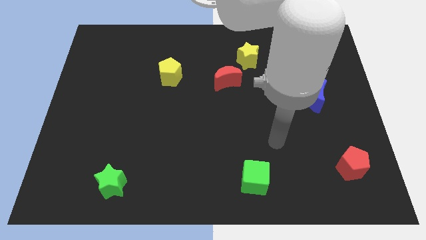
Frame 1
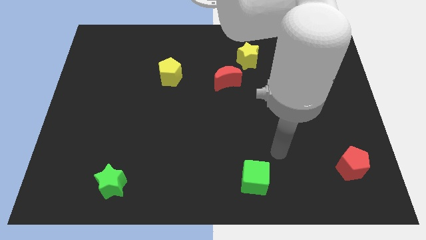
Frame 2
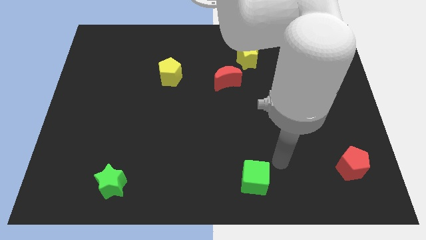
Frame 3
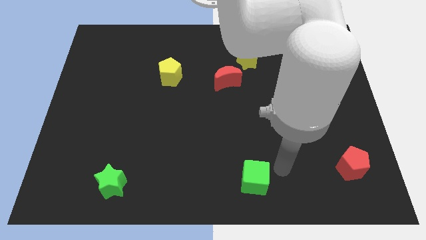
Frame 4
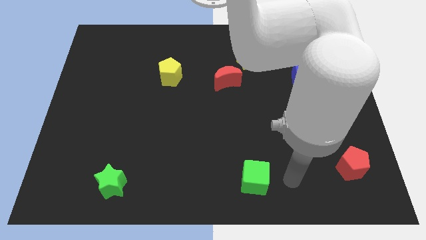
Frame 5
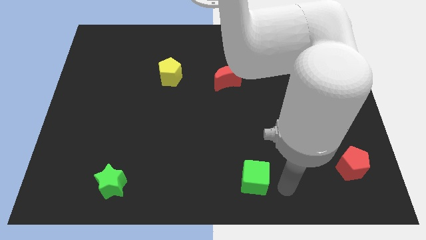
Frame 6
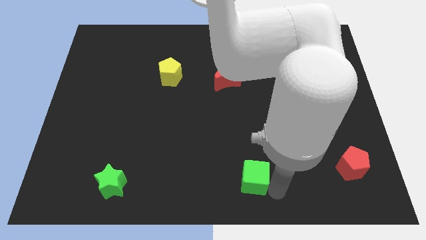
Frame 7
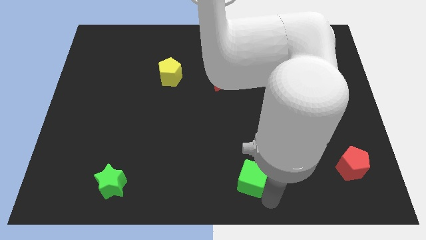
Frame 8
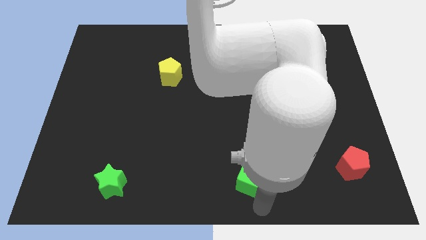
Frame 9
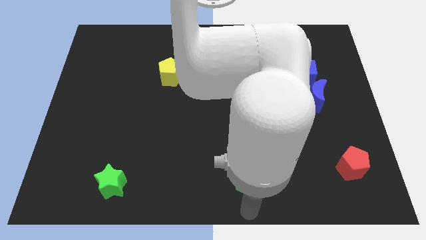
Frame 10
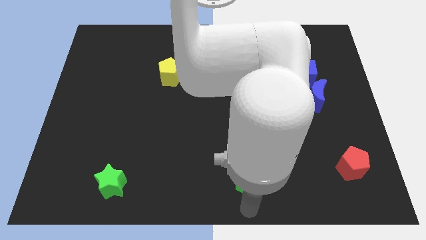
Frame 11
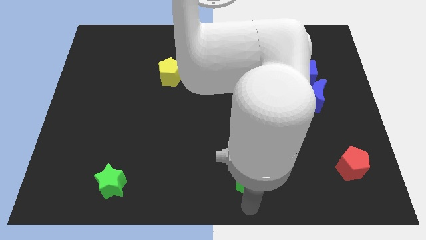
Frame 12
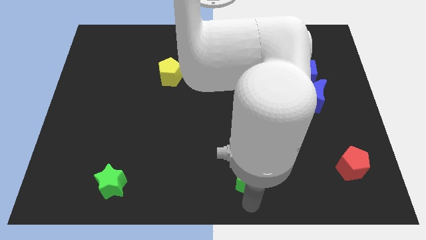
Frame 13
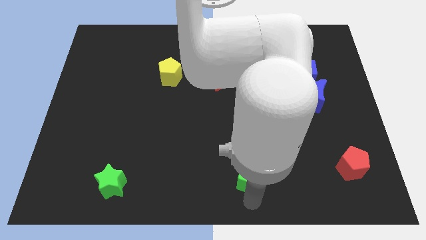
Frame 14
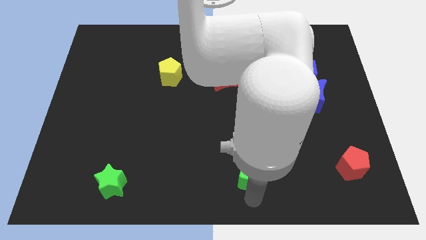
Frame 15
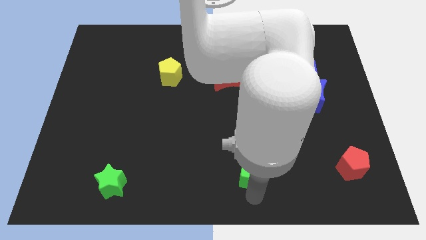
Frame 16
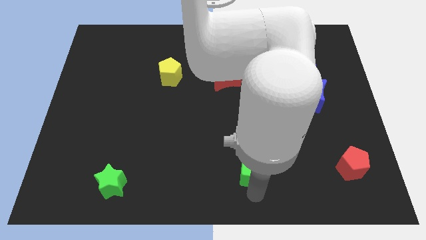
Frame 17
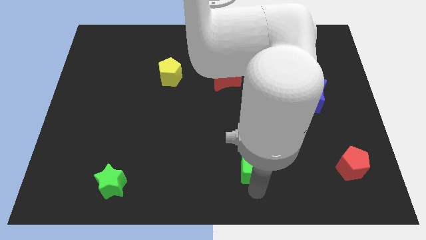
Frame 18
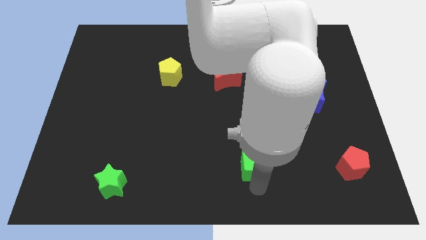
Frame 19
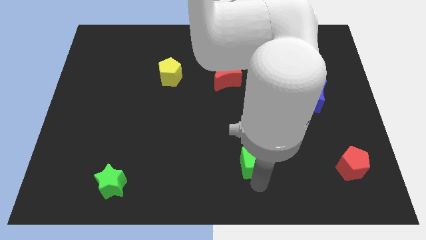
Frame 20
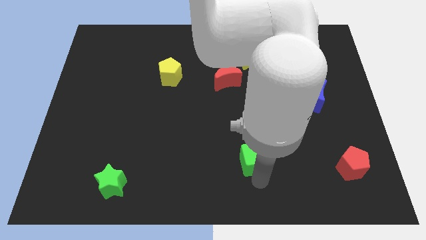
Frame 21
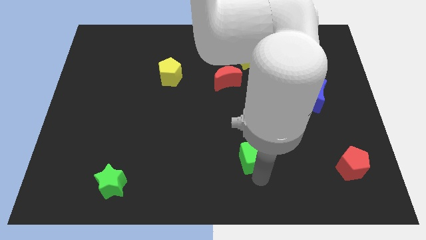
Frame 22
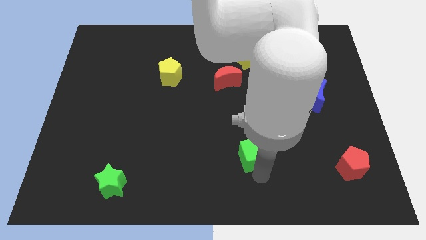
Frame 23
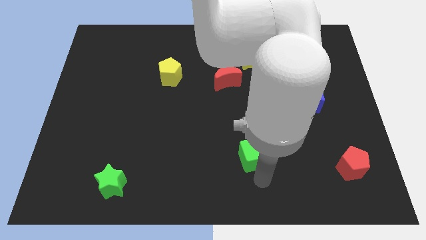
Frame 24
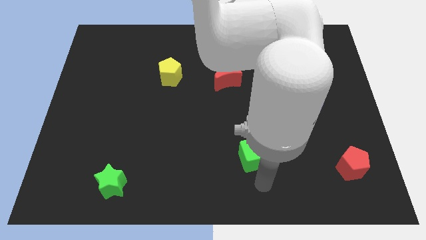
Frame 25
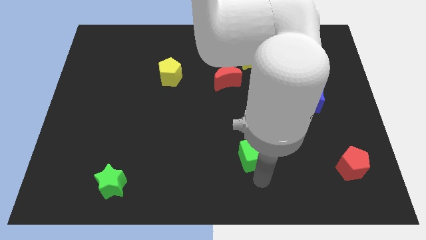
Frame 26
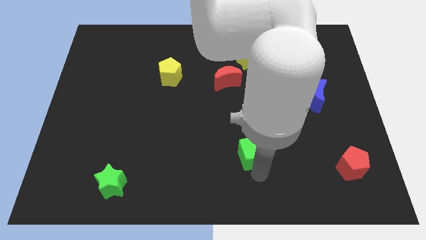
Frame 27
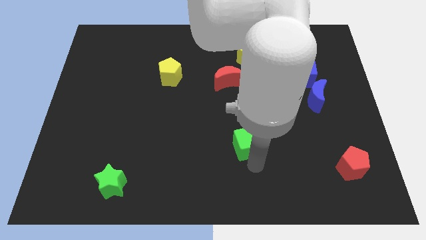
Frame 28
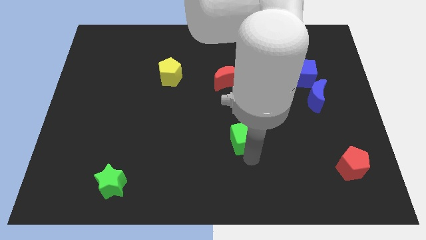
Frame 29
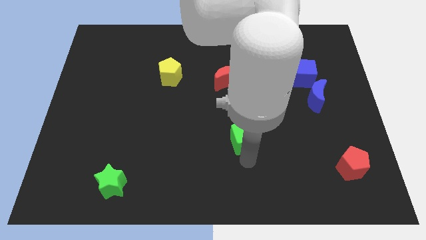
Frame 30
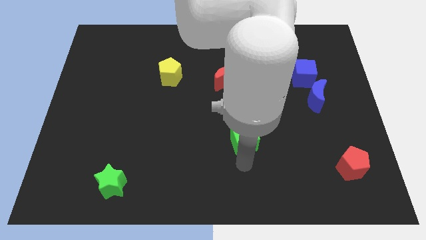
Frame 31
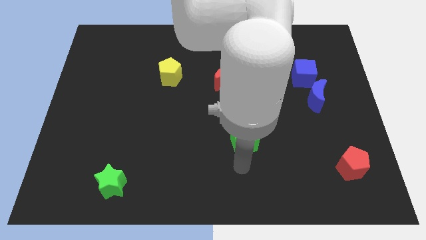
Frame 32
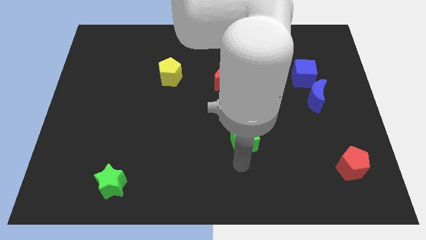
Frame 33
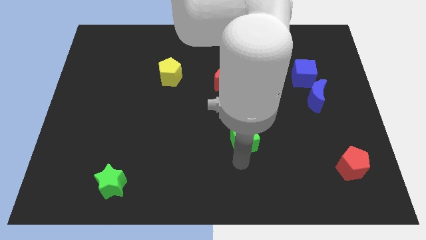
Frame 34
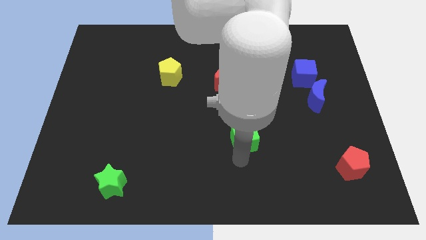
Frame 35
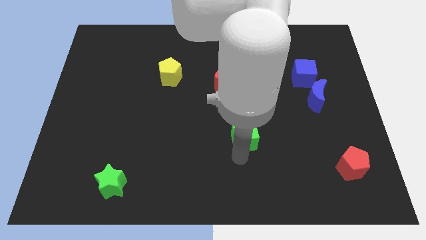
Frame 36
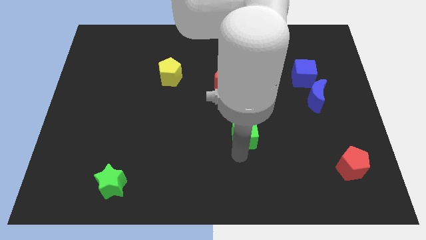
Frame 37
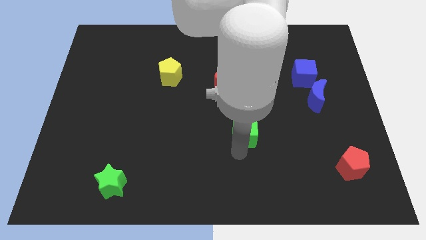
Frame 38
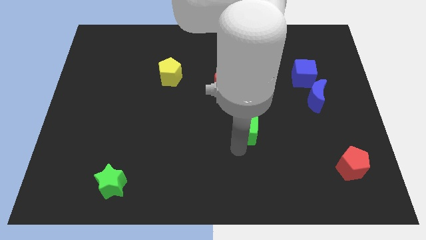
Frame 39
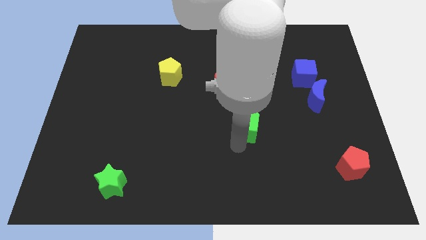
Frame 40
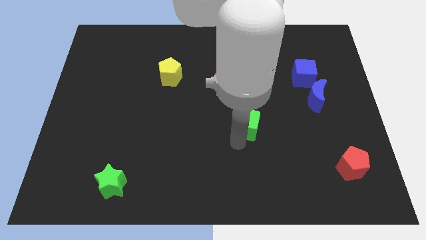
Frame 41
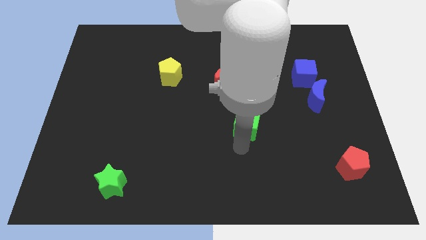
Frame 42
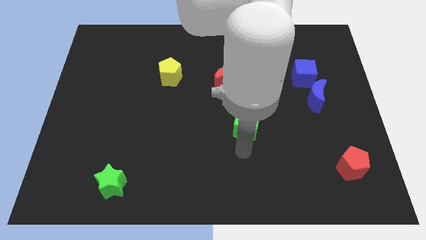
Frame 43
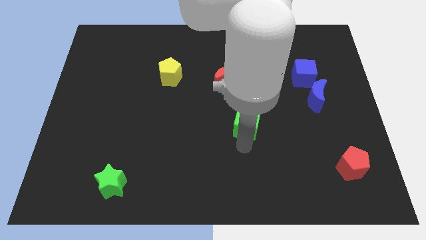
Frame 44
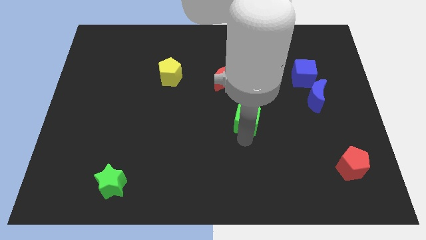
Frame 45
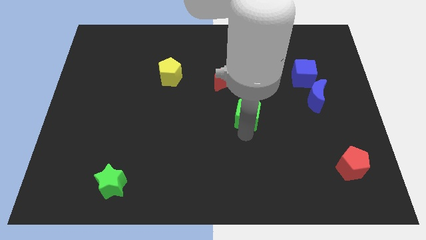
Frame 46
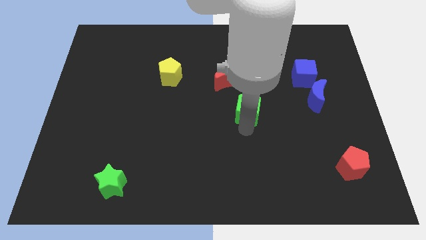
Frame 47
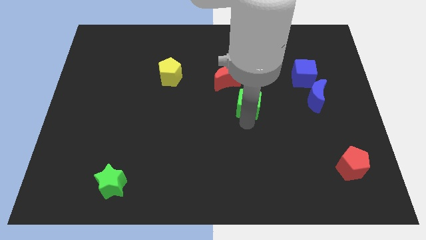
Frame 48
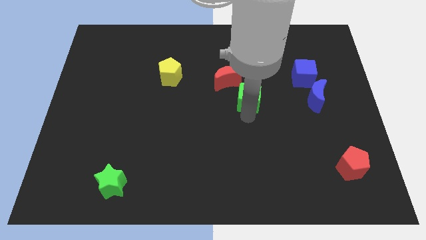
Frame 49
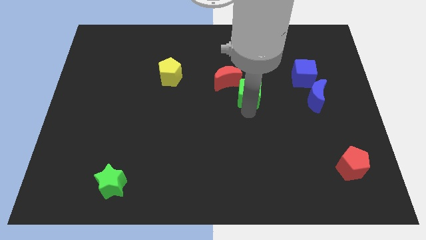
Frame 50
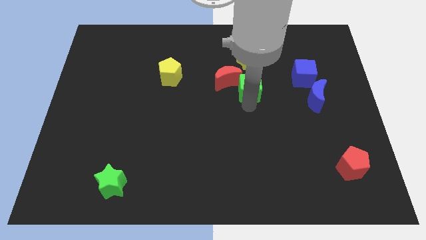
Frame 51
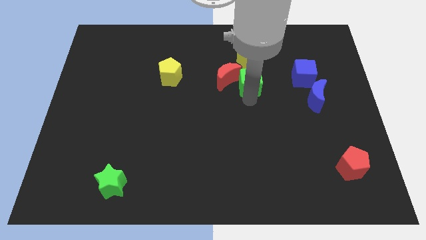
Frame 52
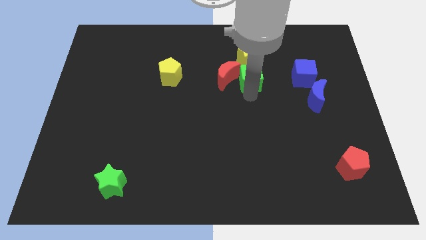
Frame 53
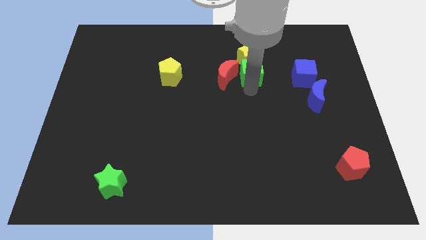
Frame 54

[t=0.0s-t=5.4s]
move the green cube to the yellow star

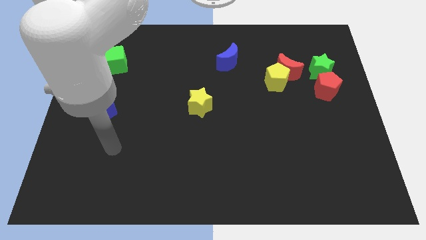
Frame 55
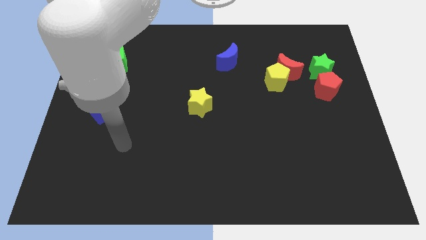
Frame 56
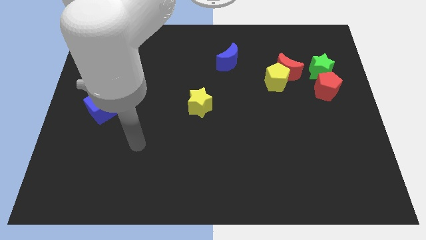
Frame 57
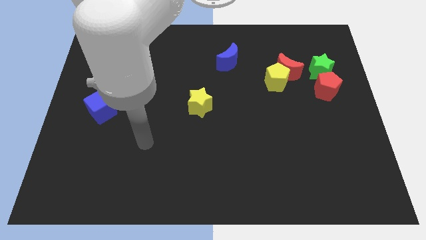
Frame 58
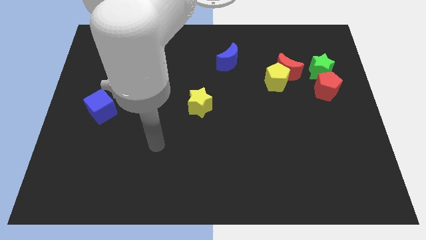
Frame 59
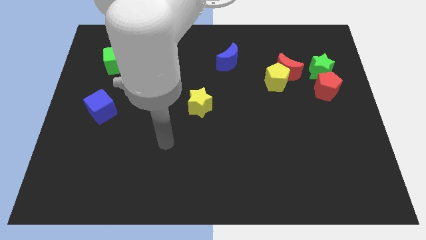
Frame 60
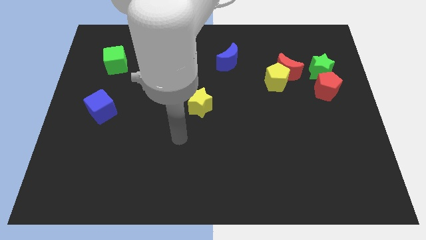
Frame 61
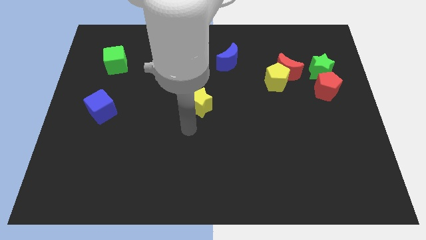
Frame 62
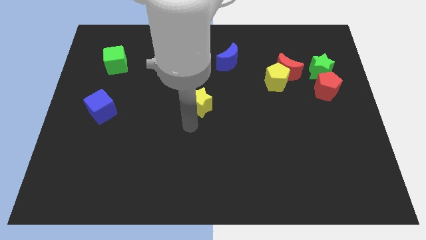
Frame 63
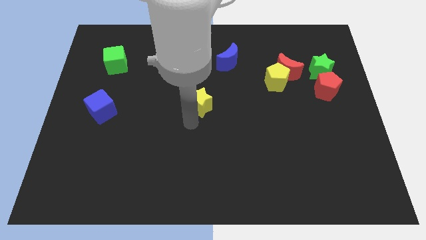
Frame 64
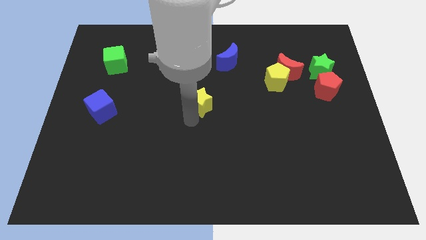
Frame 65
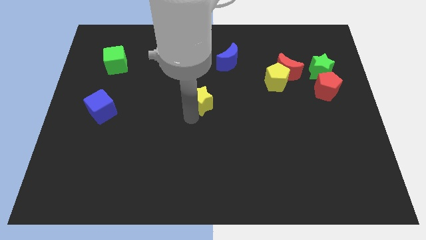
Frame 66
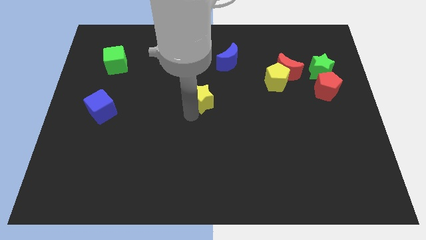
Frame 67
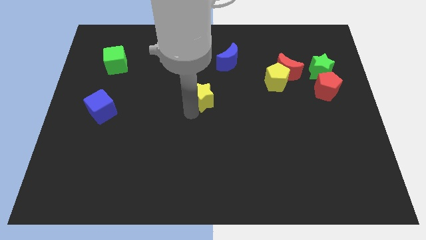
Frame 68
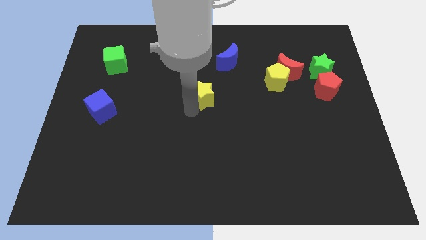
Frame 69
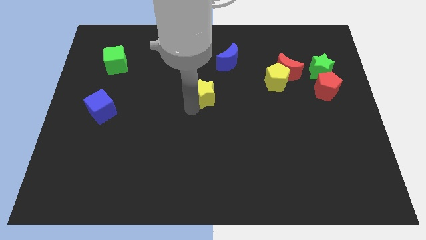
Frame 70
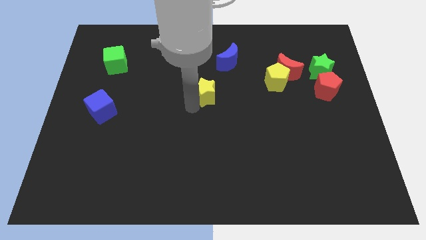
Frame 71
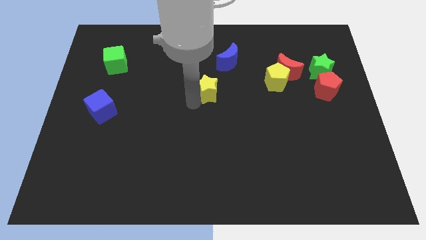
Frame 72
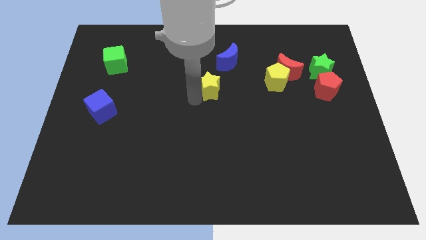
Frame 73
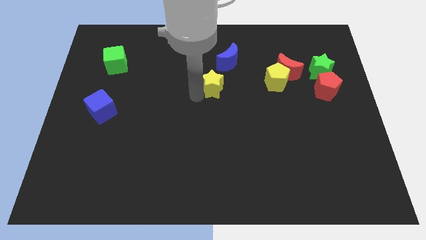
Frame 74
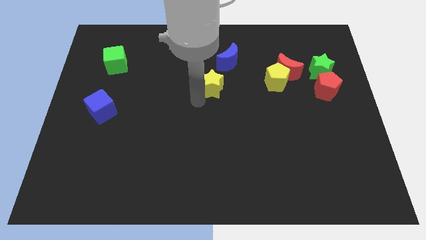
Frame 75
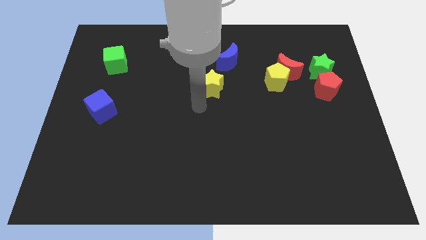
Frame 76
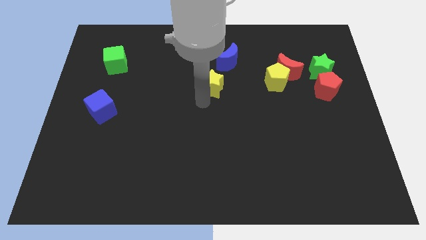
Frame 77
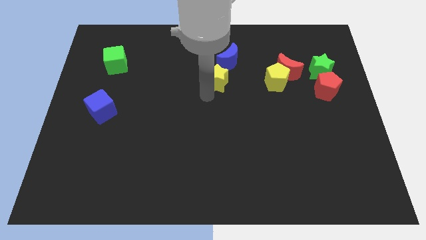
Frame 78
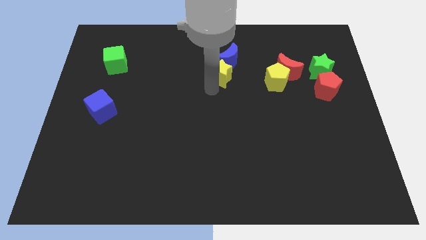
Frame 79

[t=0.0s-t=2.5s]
push the yellow star to the blue moon
